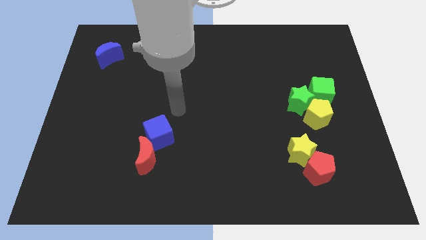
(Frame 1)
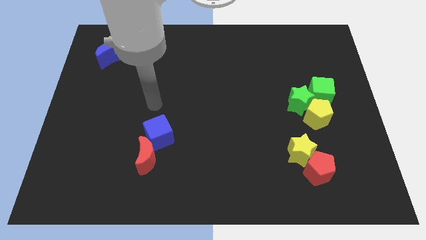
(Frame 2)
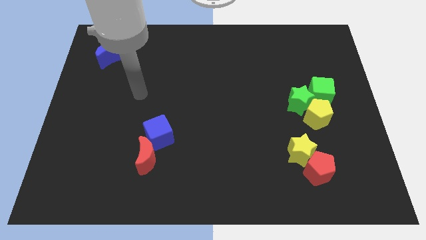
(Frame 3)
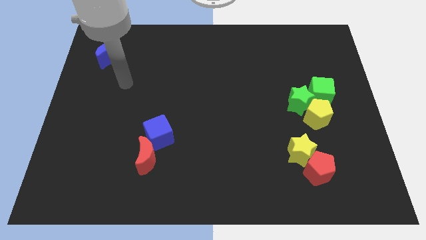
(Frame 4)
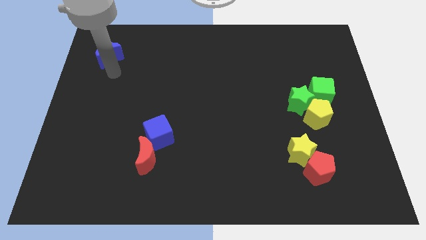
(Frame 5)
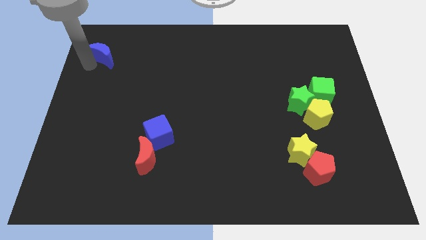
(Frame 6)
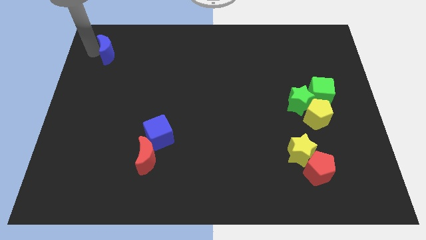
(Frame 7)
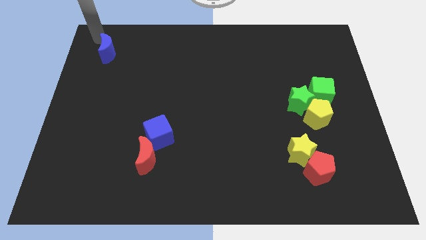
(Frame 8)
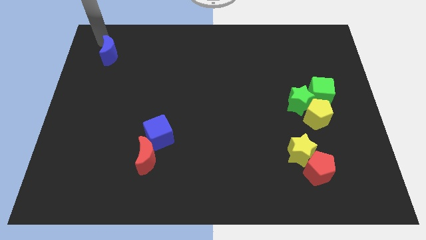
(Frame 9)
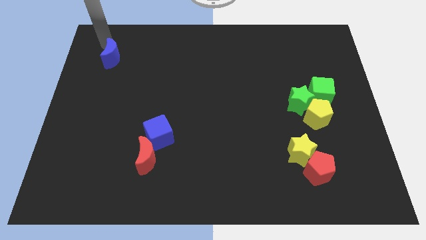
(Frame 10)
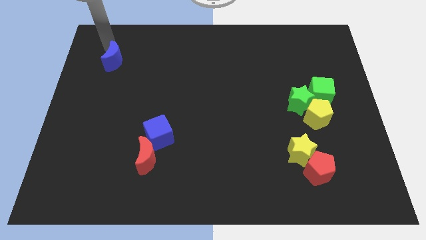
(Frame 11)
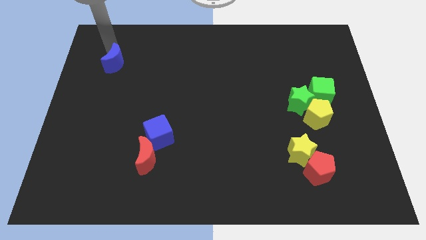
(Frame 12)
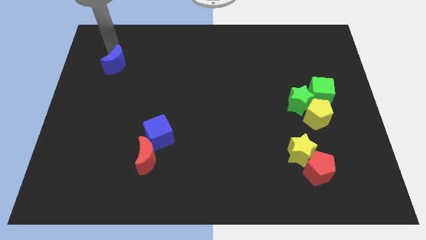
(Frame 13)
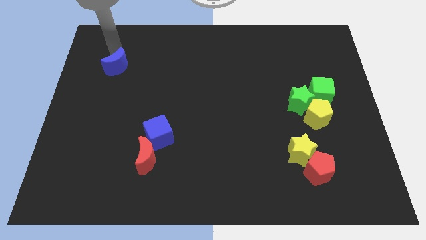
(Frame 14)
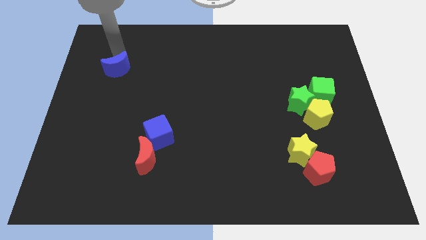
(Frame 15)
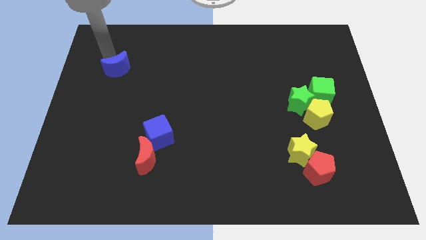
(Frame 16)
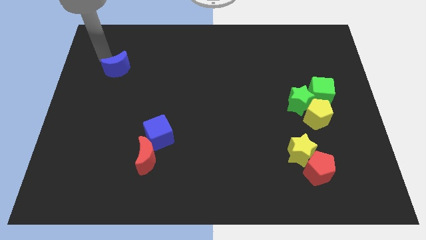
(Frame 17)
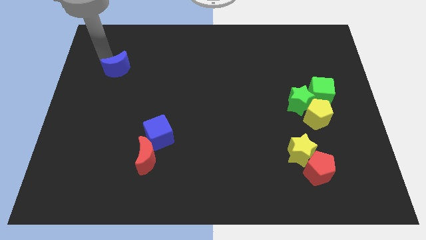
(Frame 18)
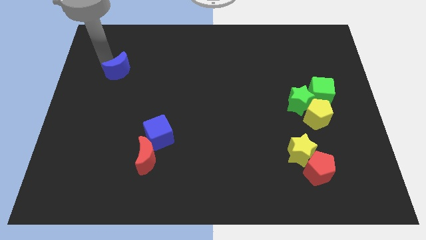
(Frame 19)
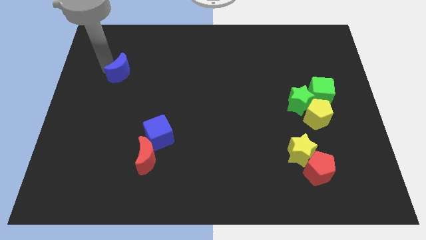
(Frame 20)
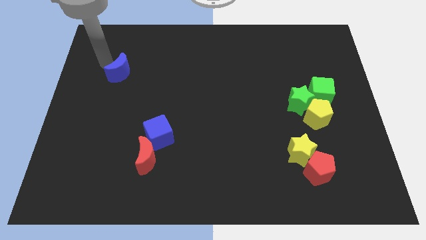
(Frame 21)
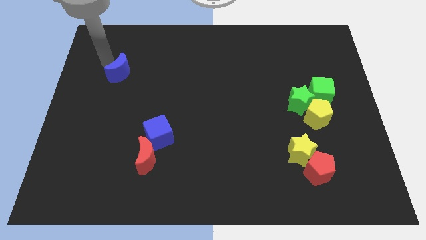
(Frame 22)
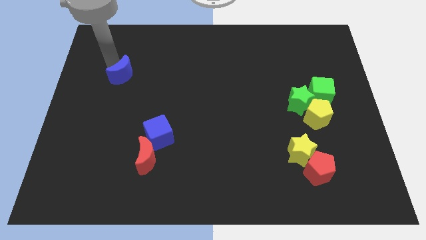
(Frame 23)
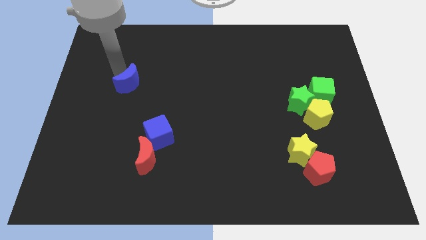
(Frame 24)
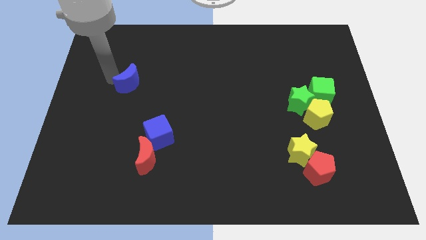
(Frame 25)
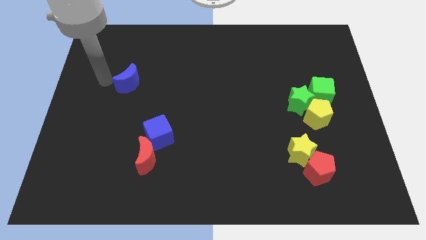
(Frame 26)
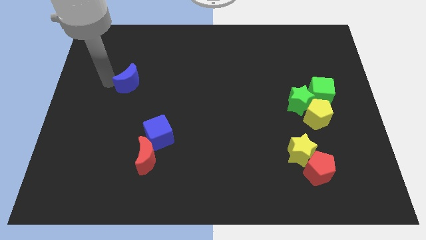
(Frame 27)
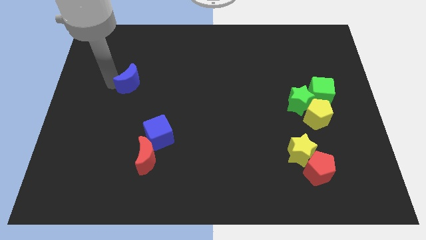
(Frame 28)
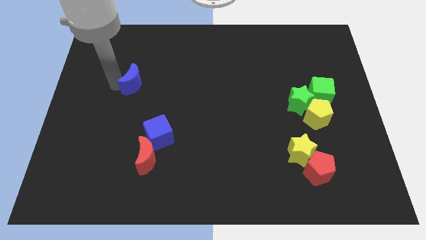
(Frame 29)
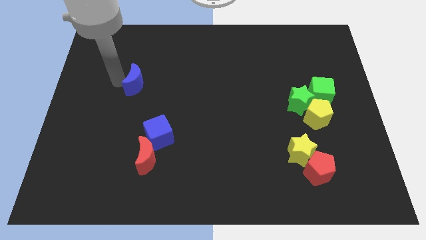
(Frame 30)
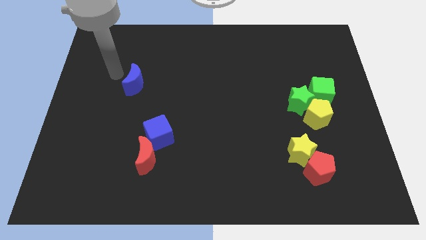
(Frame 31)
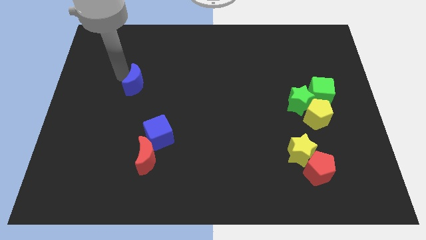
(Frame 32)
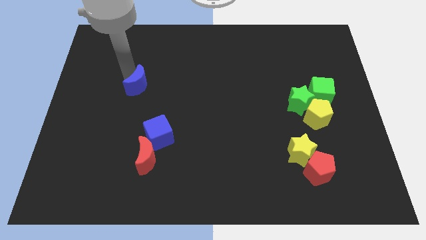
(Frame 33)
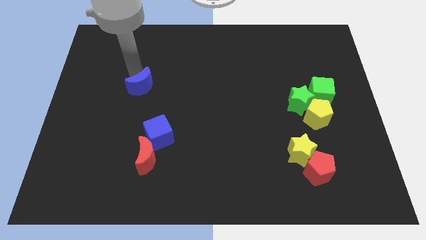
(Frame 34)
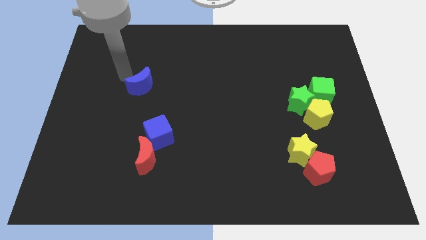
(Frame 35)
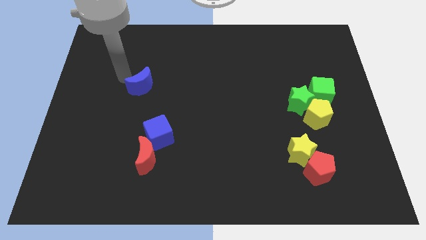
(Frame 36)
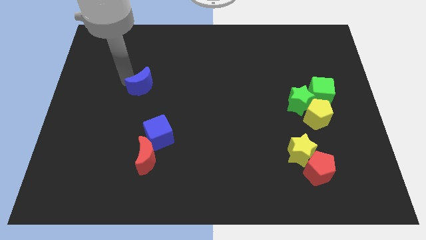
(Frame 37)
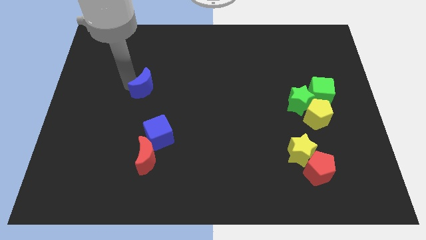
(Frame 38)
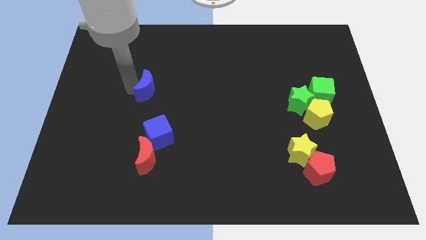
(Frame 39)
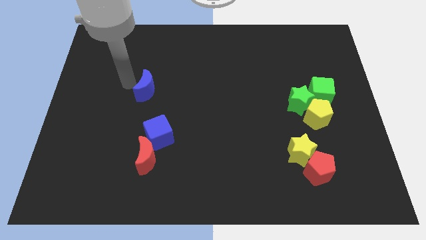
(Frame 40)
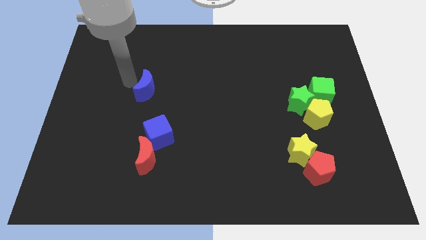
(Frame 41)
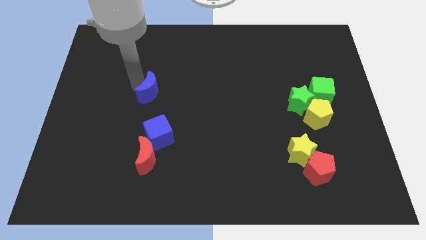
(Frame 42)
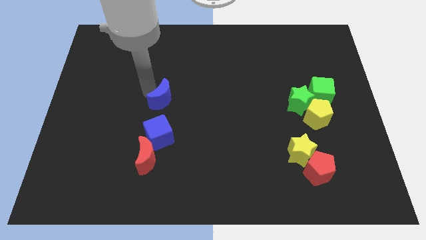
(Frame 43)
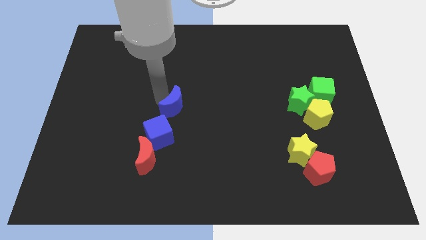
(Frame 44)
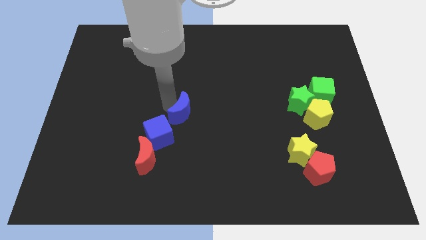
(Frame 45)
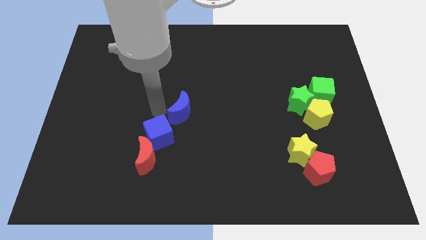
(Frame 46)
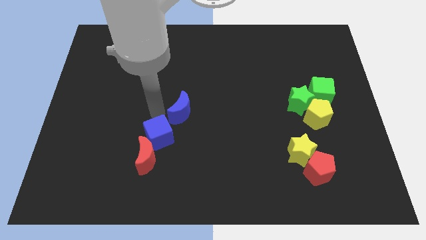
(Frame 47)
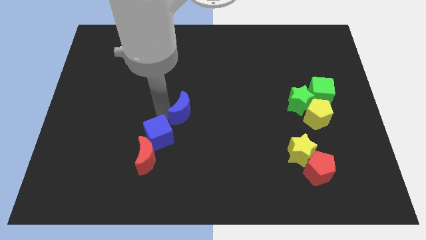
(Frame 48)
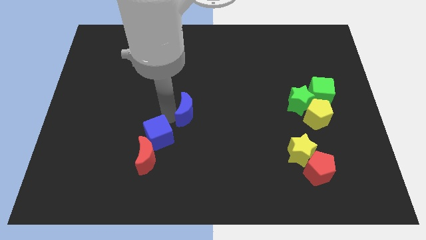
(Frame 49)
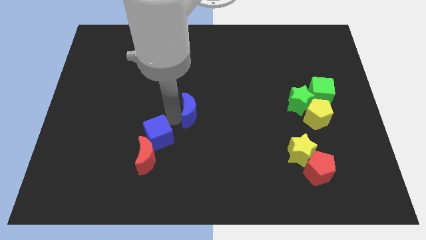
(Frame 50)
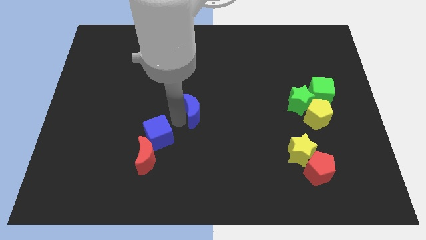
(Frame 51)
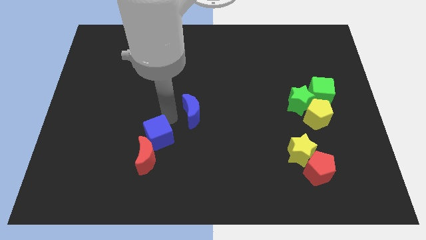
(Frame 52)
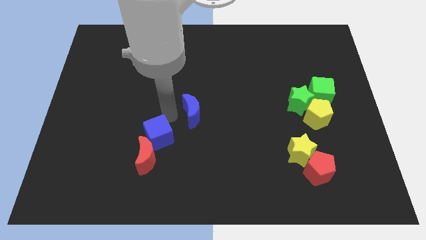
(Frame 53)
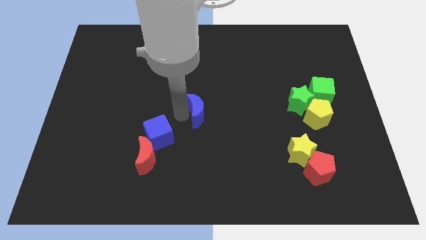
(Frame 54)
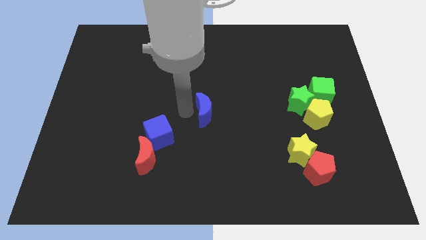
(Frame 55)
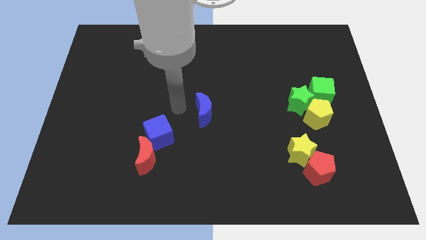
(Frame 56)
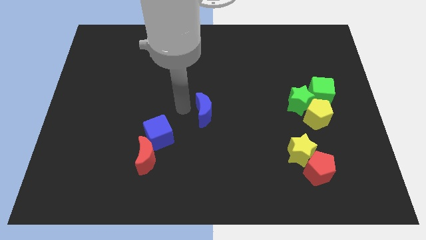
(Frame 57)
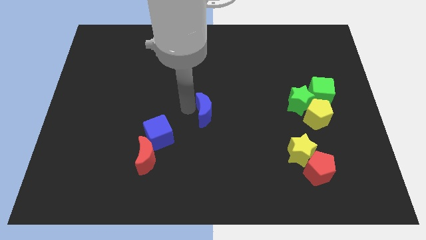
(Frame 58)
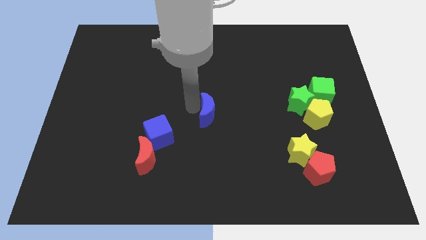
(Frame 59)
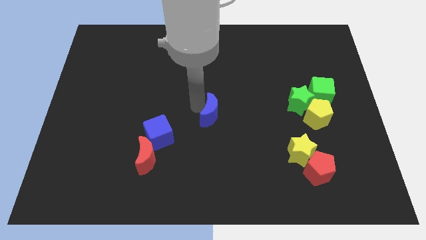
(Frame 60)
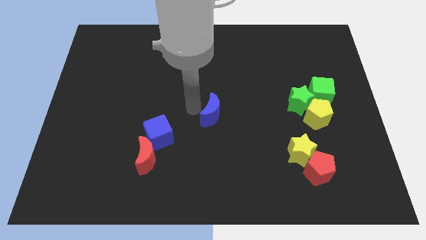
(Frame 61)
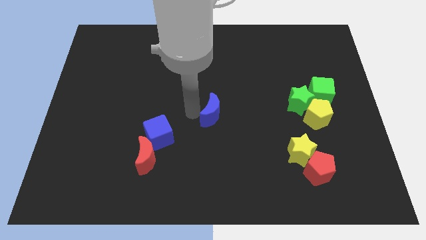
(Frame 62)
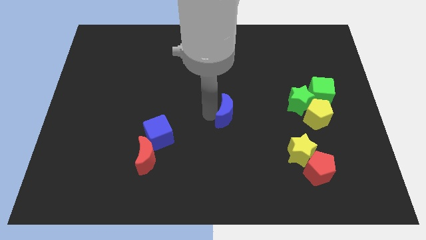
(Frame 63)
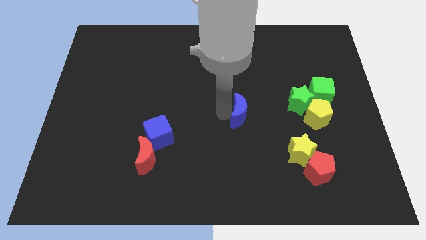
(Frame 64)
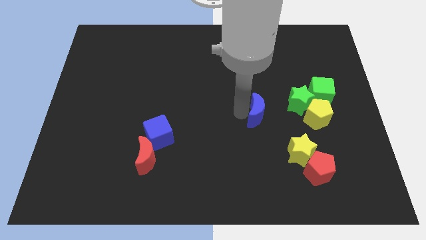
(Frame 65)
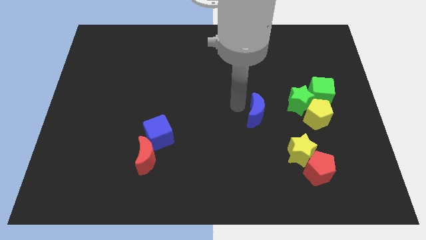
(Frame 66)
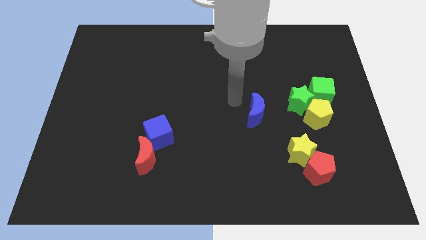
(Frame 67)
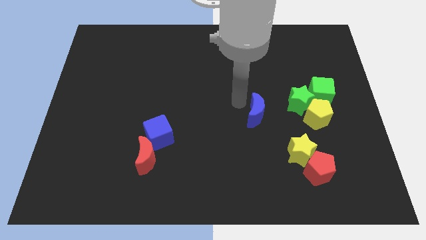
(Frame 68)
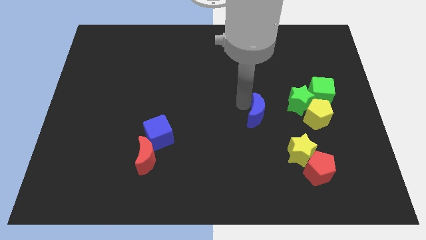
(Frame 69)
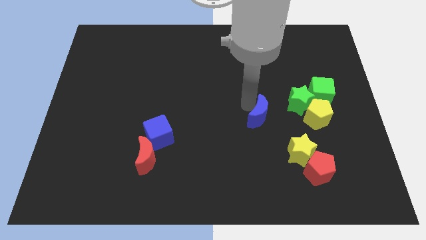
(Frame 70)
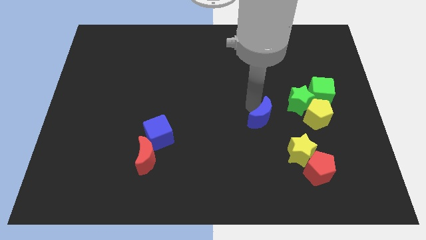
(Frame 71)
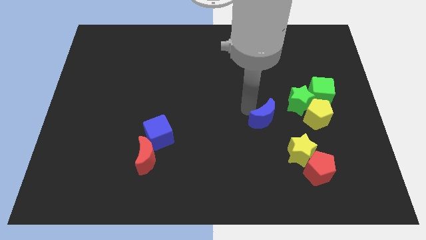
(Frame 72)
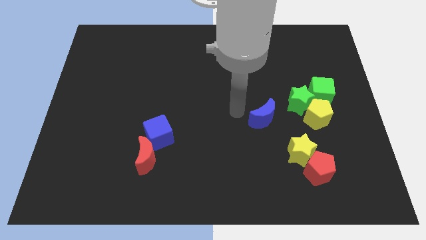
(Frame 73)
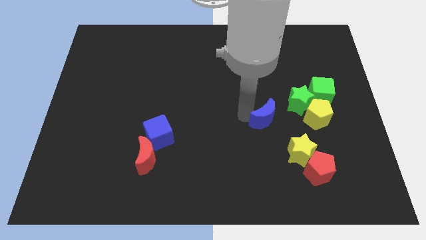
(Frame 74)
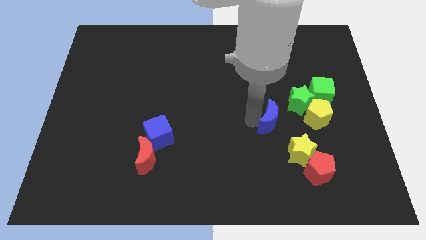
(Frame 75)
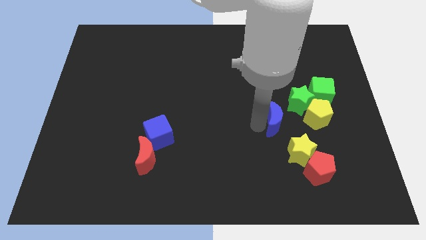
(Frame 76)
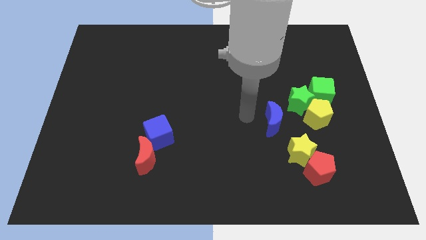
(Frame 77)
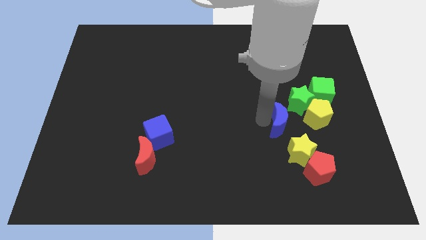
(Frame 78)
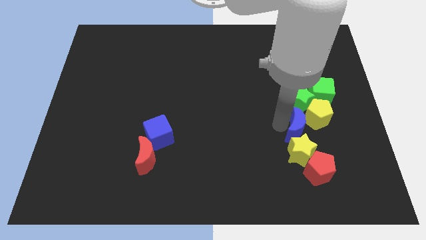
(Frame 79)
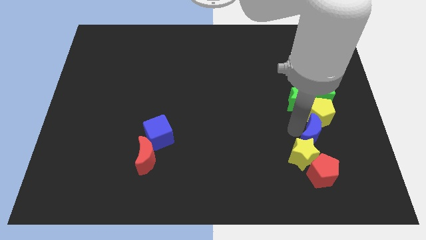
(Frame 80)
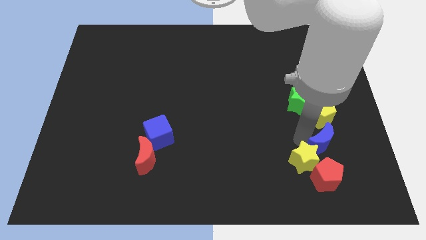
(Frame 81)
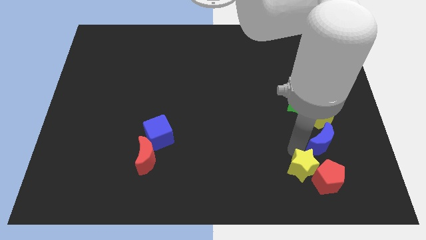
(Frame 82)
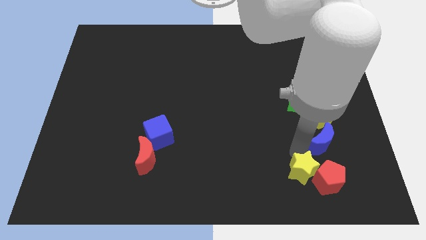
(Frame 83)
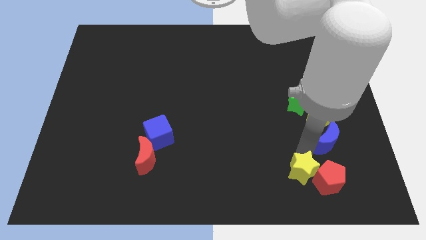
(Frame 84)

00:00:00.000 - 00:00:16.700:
move the blue moon to the bottom right side of the yellow pentagon
